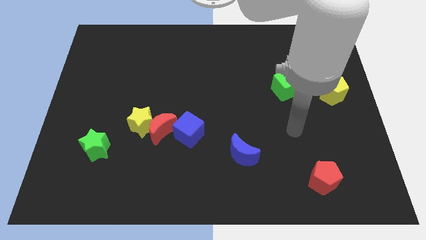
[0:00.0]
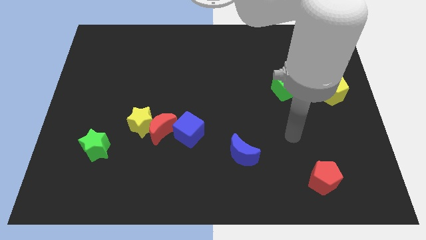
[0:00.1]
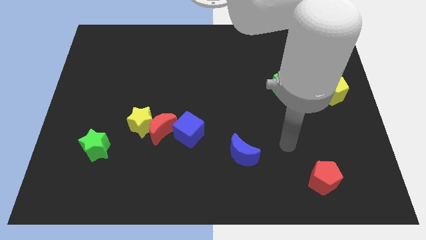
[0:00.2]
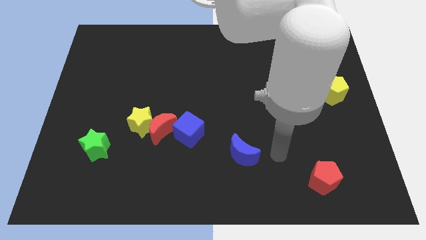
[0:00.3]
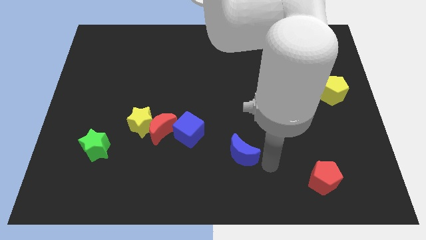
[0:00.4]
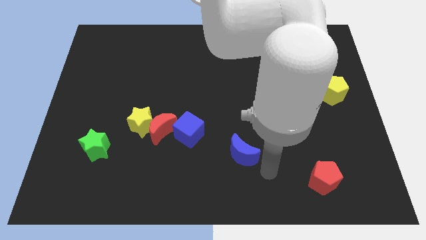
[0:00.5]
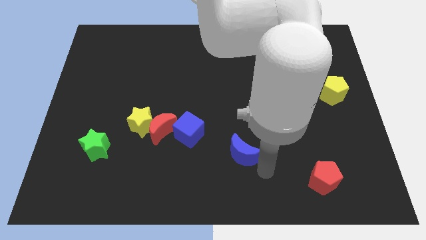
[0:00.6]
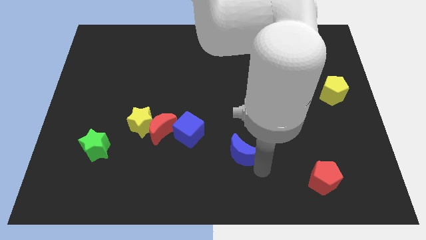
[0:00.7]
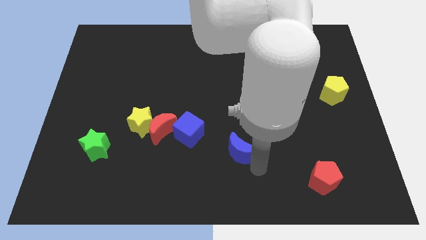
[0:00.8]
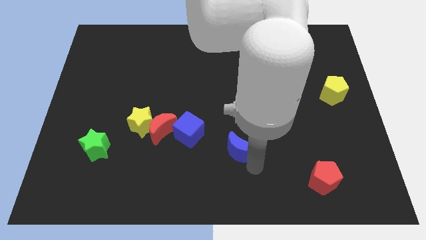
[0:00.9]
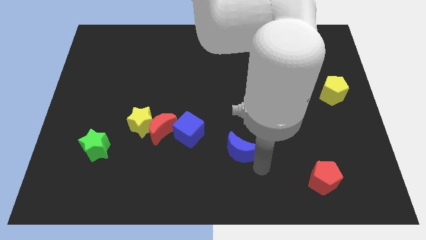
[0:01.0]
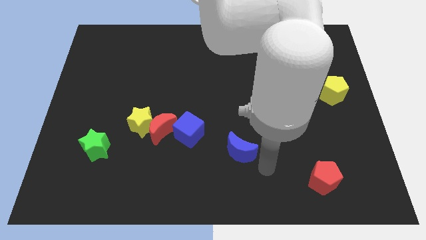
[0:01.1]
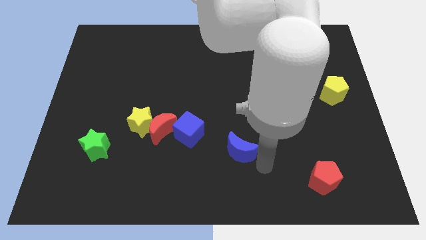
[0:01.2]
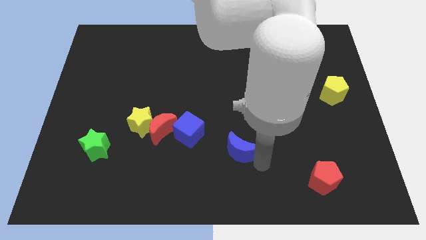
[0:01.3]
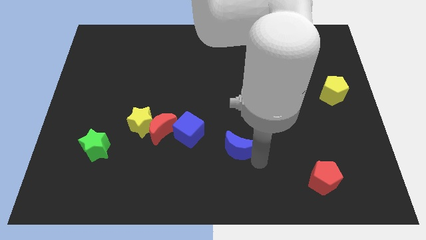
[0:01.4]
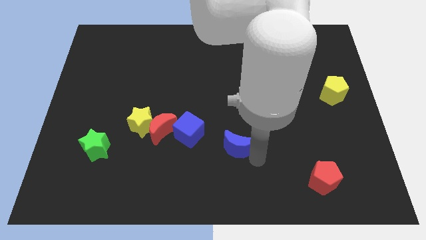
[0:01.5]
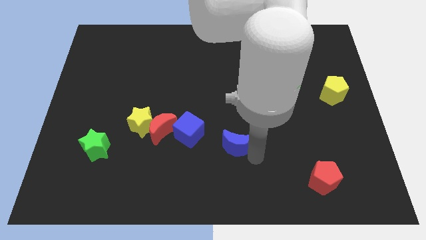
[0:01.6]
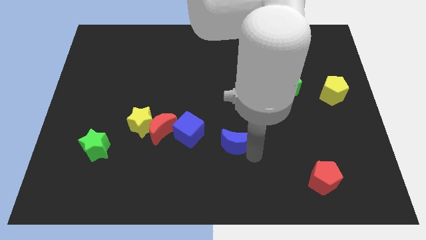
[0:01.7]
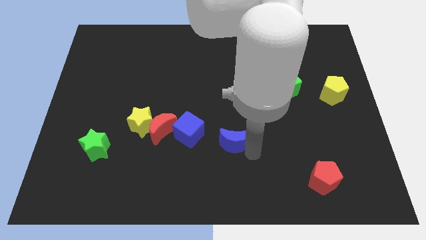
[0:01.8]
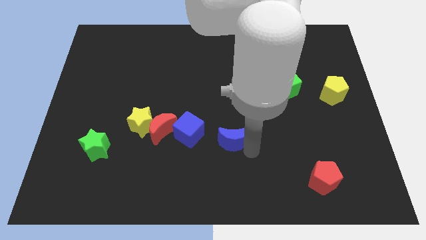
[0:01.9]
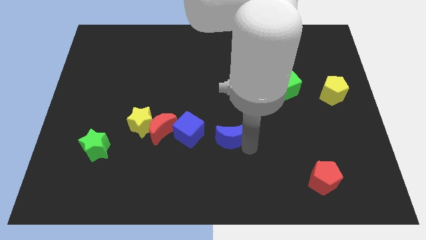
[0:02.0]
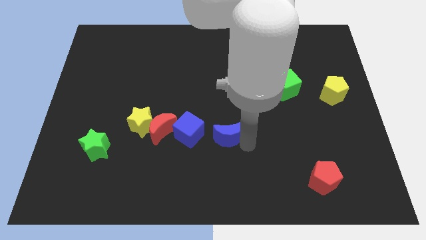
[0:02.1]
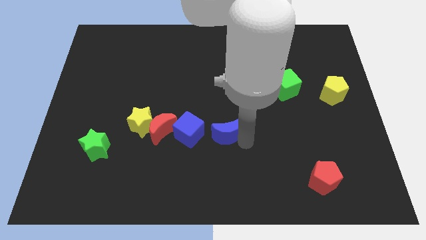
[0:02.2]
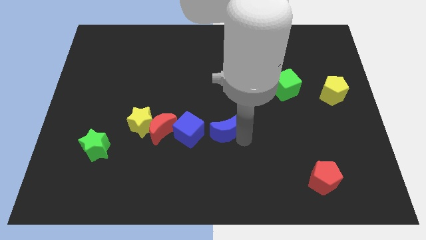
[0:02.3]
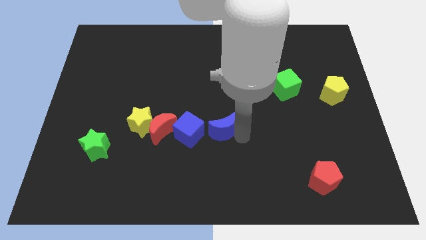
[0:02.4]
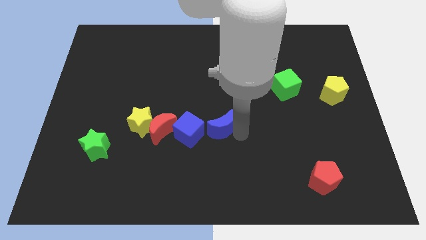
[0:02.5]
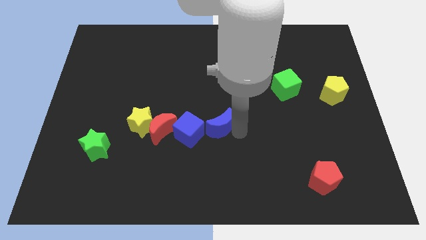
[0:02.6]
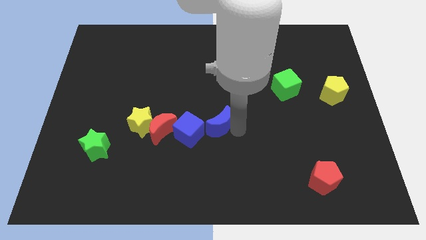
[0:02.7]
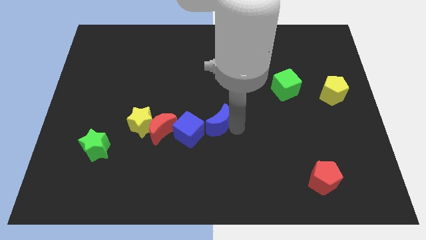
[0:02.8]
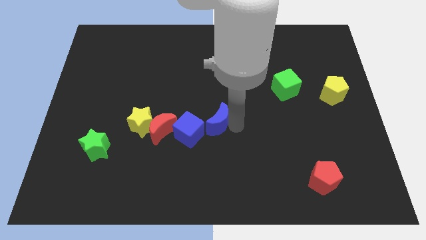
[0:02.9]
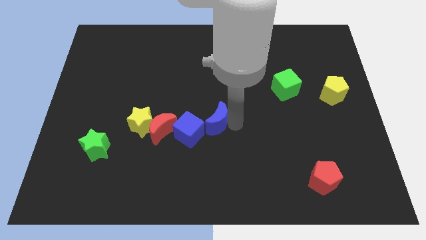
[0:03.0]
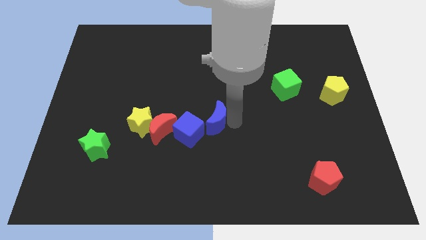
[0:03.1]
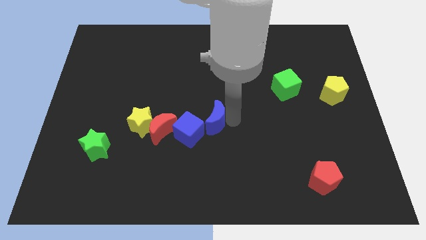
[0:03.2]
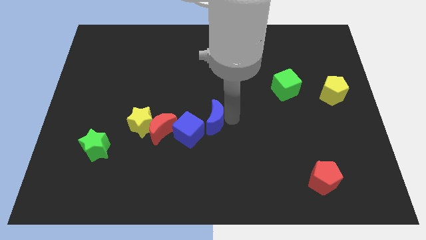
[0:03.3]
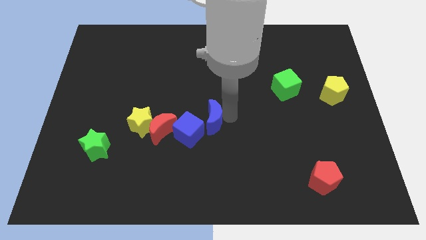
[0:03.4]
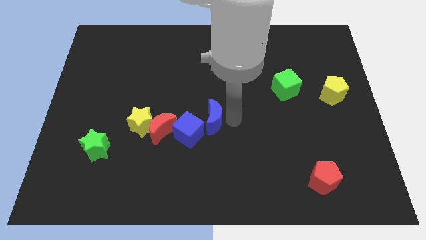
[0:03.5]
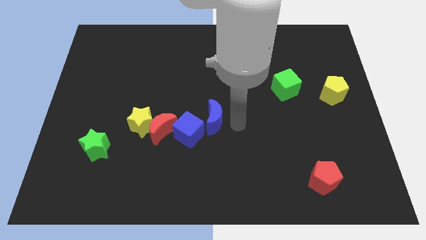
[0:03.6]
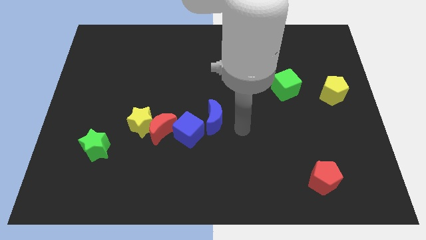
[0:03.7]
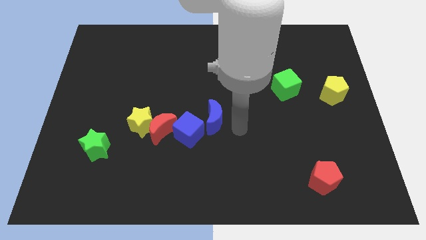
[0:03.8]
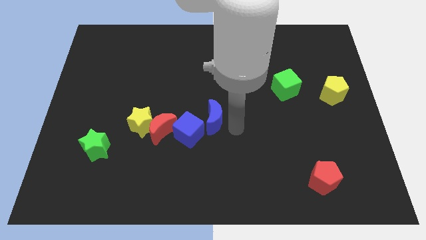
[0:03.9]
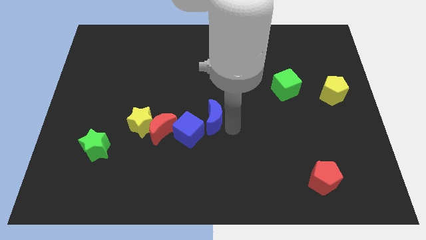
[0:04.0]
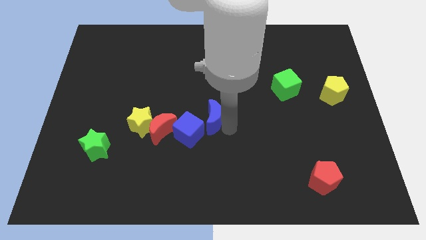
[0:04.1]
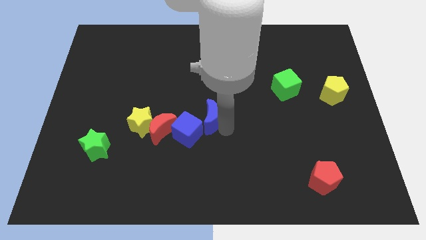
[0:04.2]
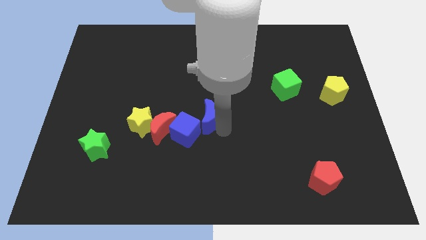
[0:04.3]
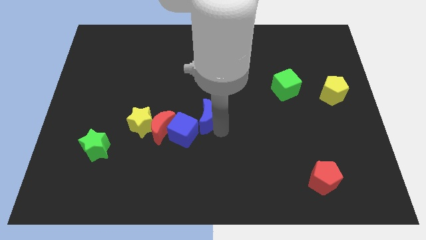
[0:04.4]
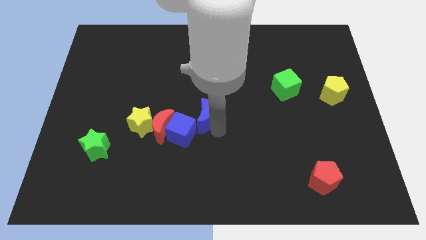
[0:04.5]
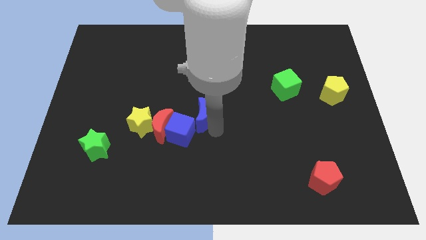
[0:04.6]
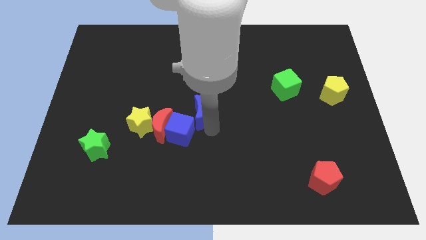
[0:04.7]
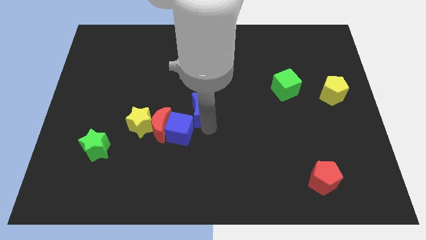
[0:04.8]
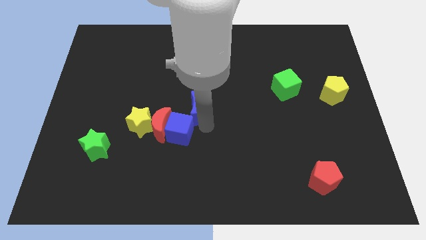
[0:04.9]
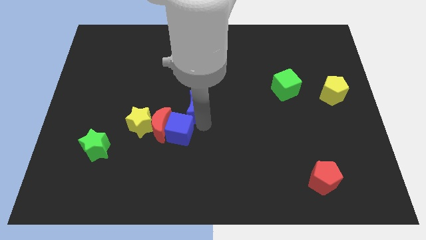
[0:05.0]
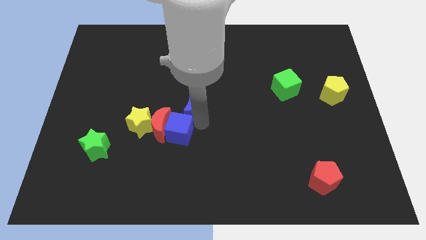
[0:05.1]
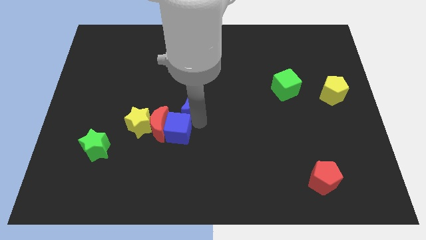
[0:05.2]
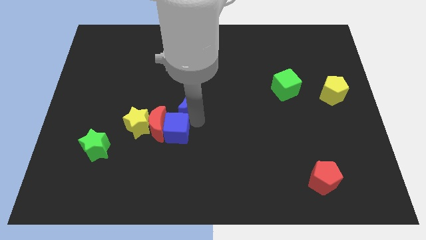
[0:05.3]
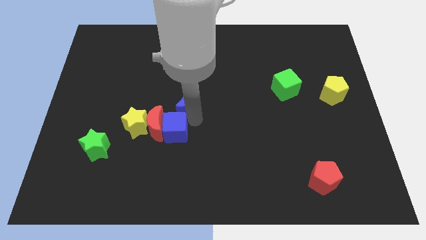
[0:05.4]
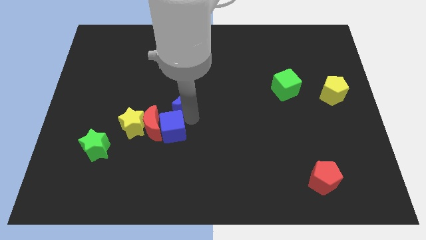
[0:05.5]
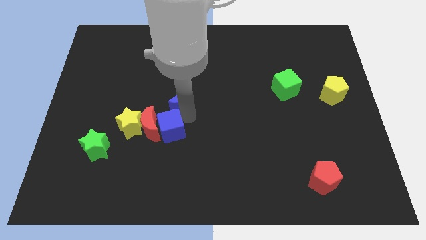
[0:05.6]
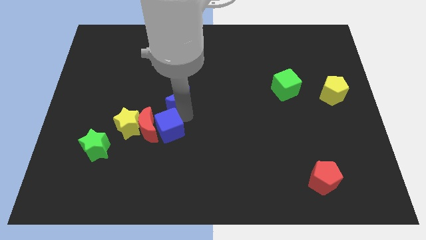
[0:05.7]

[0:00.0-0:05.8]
push the blue moon diagonally up and to the left

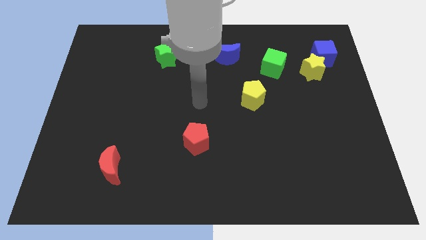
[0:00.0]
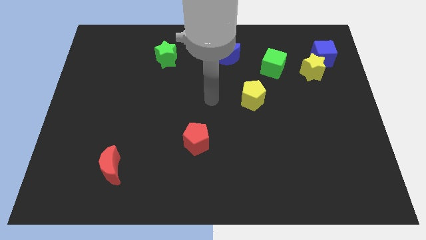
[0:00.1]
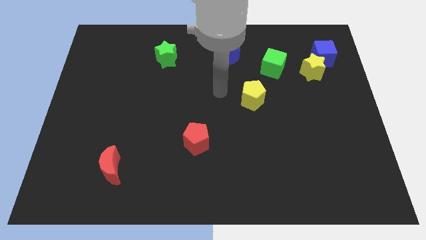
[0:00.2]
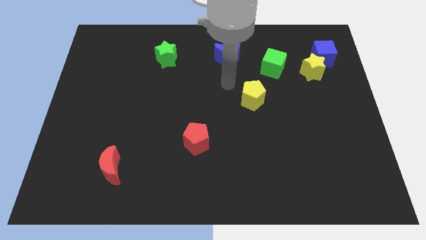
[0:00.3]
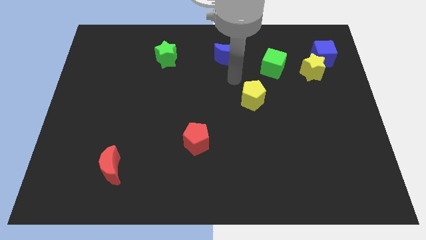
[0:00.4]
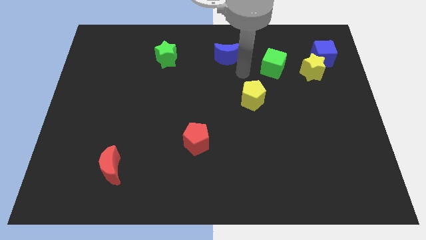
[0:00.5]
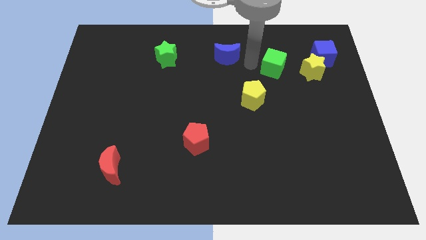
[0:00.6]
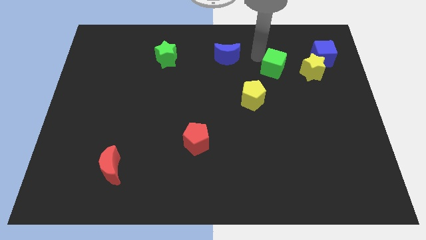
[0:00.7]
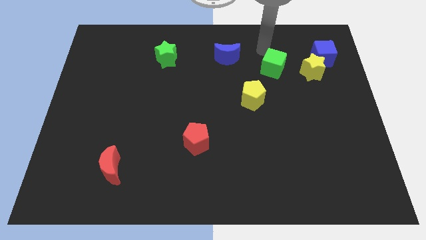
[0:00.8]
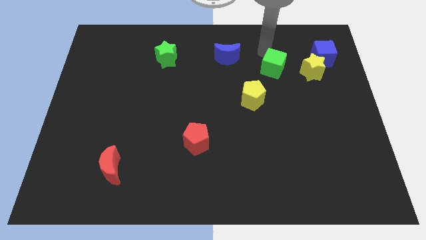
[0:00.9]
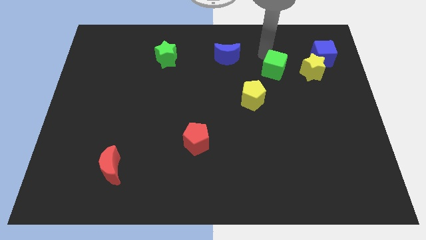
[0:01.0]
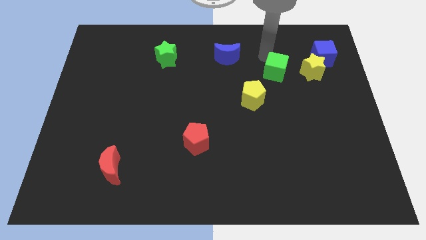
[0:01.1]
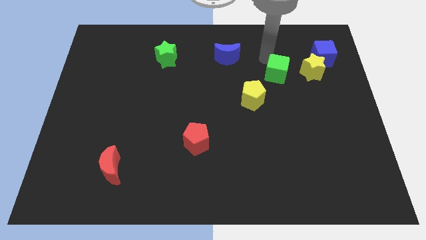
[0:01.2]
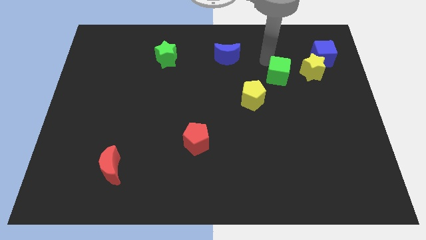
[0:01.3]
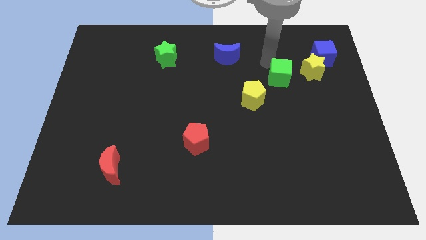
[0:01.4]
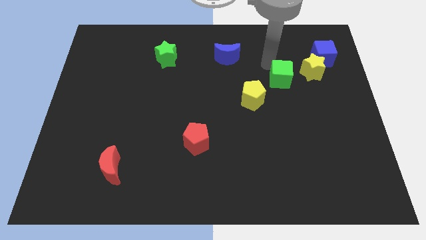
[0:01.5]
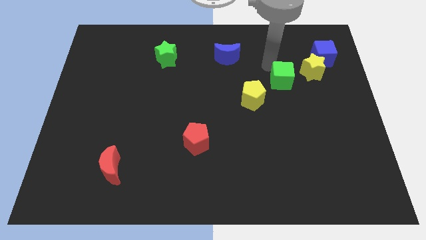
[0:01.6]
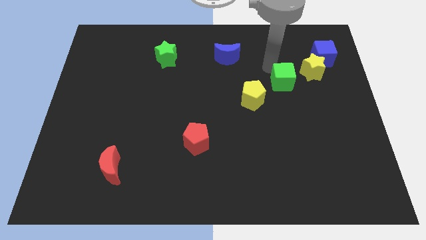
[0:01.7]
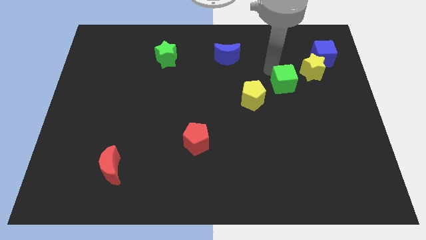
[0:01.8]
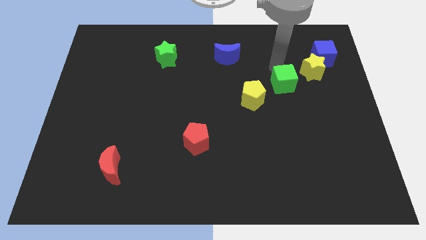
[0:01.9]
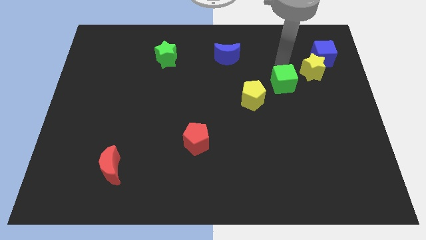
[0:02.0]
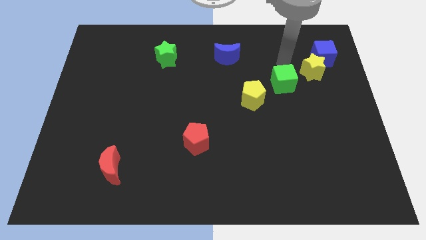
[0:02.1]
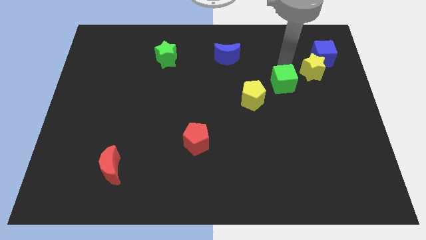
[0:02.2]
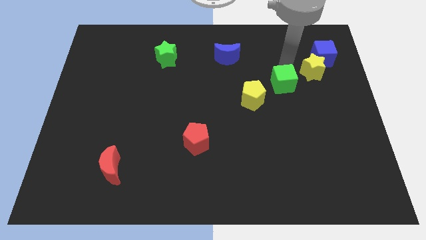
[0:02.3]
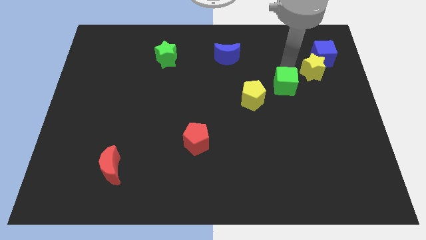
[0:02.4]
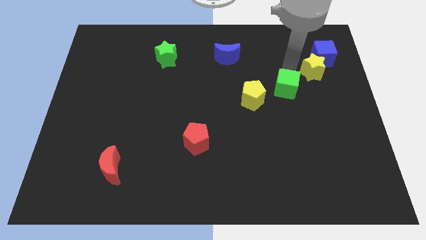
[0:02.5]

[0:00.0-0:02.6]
slightly push the green cube down
